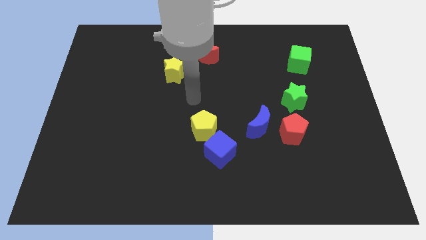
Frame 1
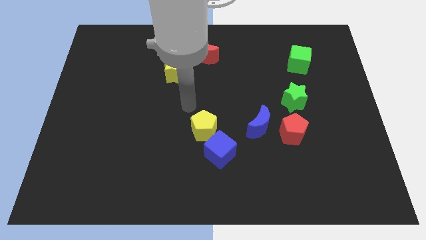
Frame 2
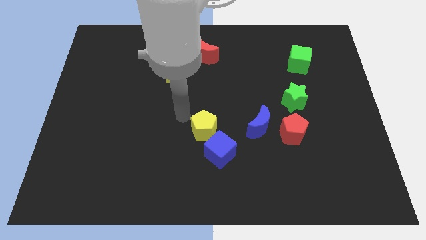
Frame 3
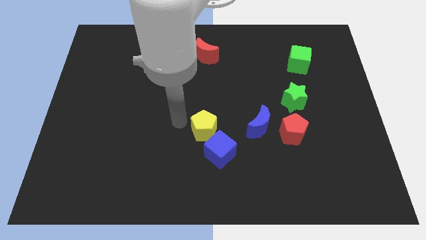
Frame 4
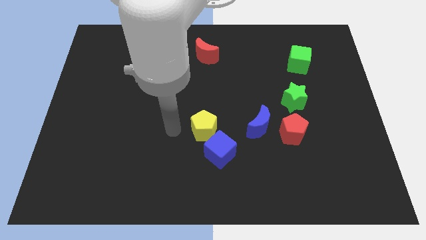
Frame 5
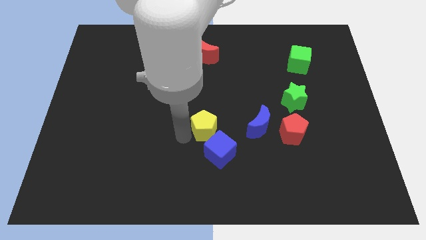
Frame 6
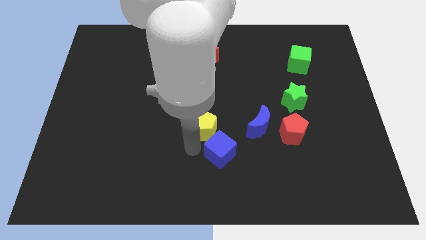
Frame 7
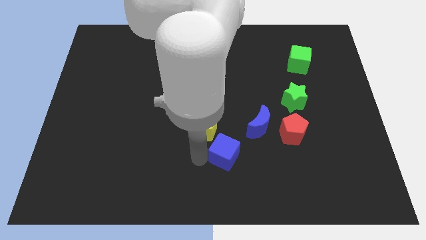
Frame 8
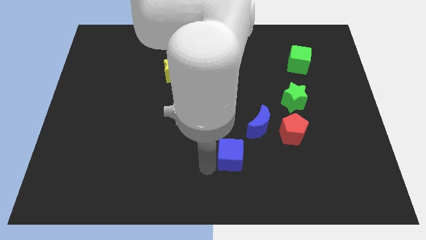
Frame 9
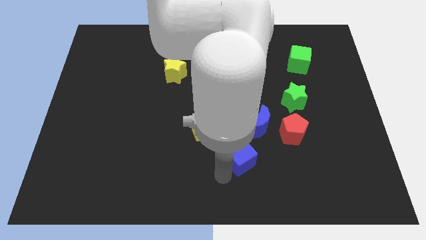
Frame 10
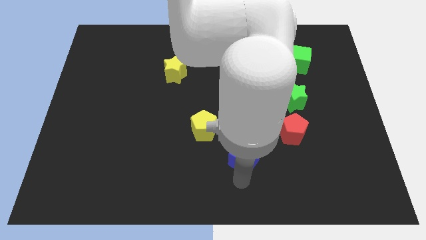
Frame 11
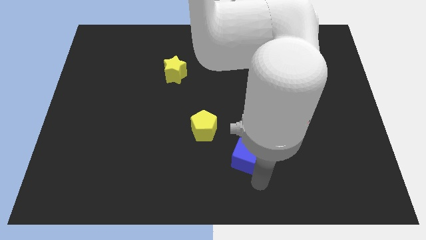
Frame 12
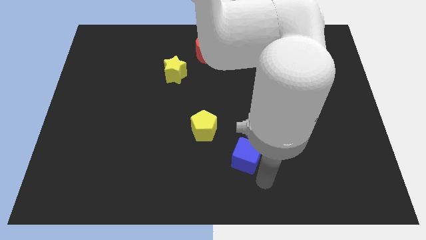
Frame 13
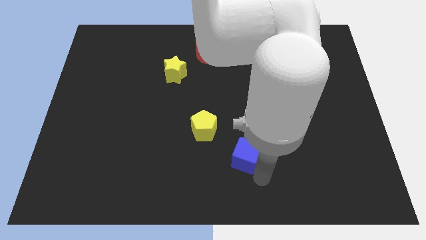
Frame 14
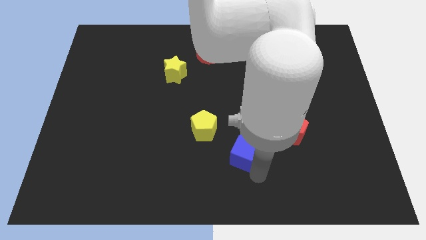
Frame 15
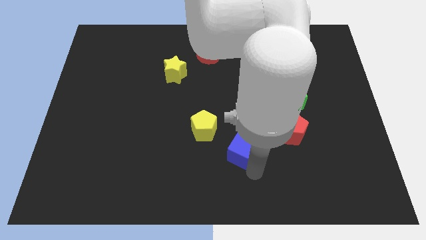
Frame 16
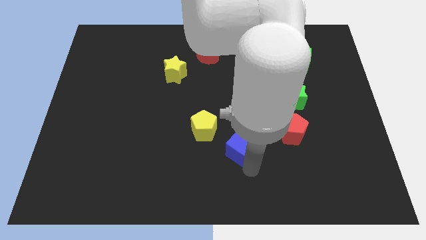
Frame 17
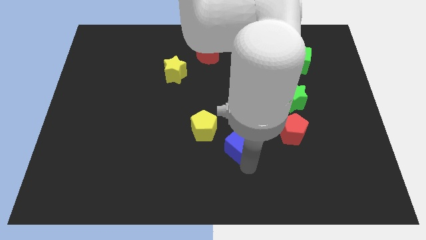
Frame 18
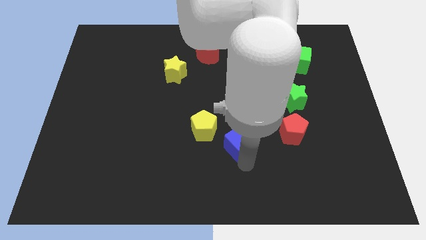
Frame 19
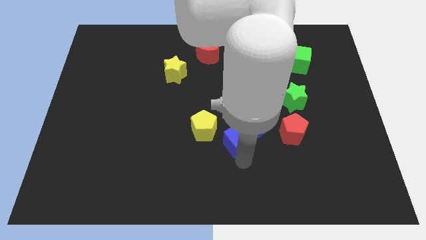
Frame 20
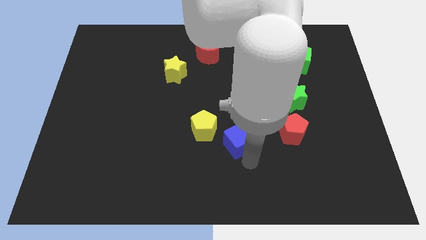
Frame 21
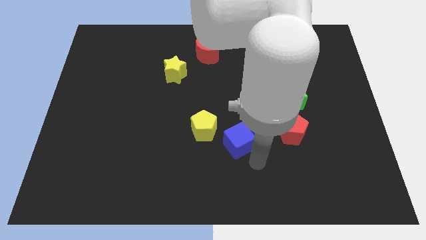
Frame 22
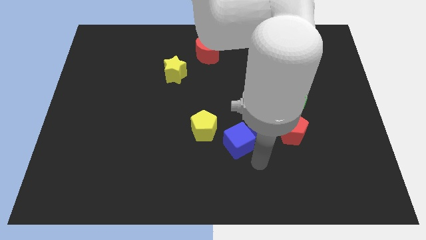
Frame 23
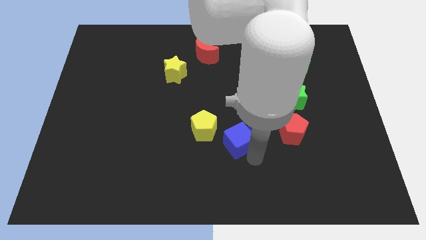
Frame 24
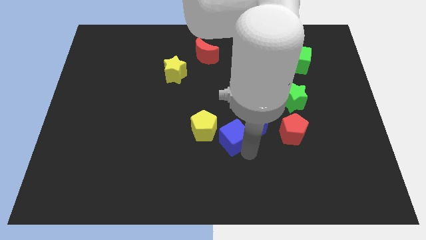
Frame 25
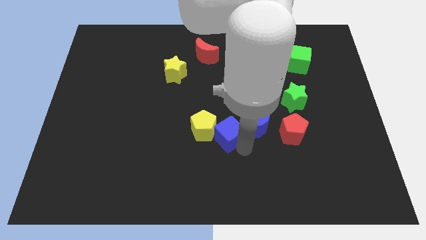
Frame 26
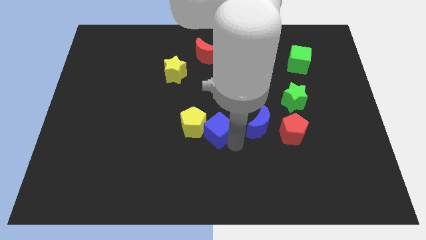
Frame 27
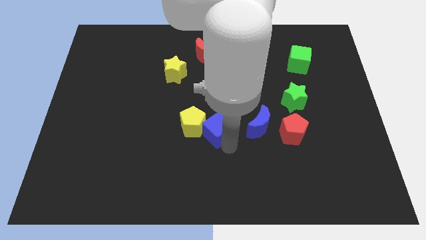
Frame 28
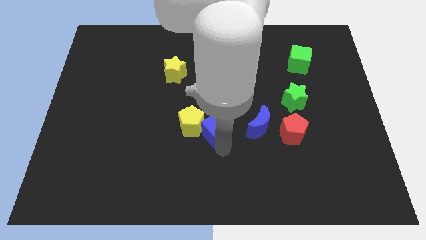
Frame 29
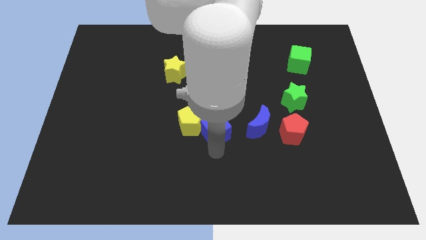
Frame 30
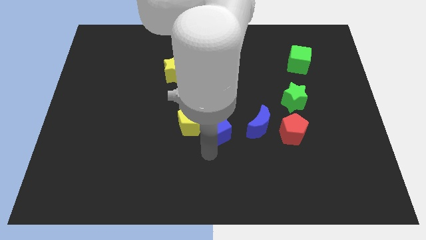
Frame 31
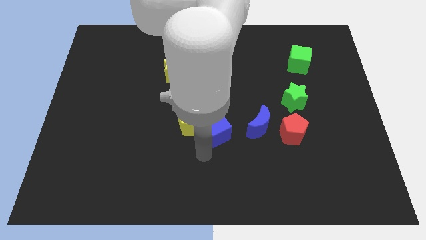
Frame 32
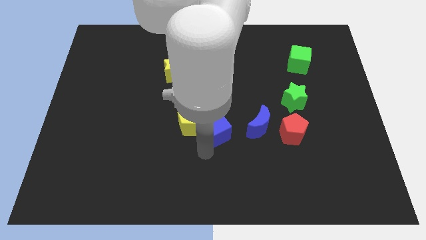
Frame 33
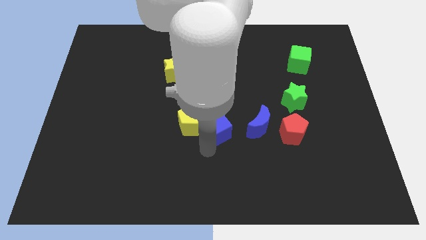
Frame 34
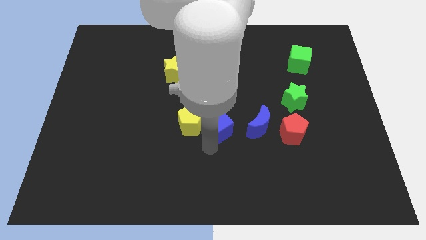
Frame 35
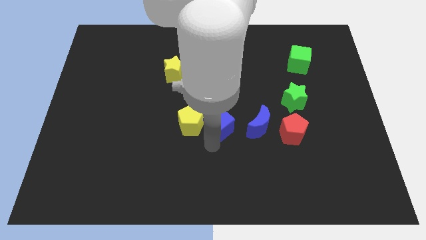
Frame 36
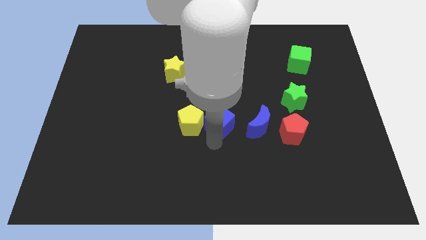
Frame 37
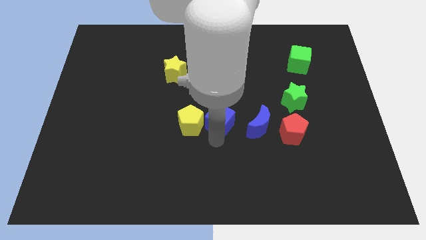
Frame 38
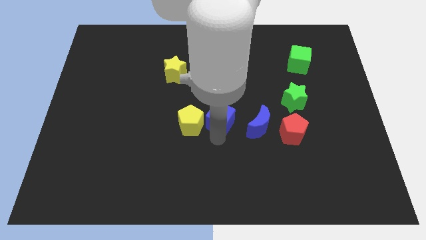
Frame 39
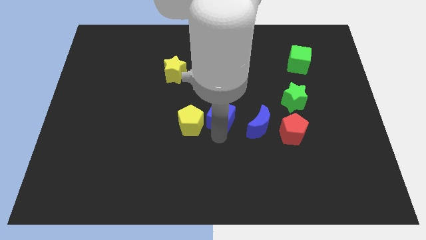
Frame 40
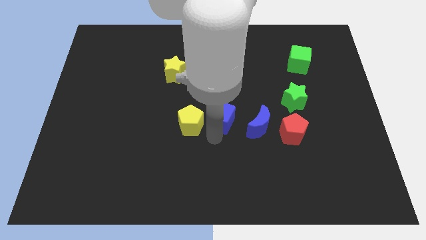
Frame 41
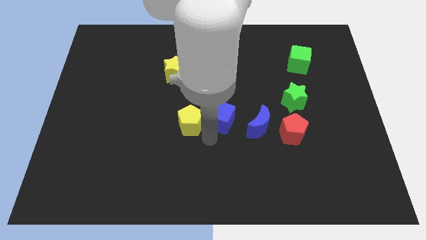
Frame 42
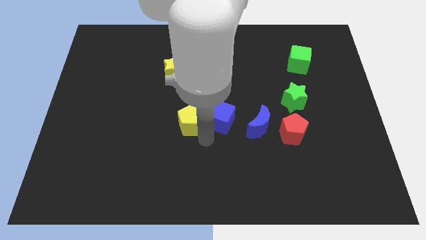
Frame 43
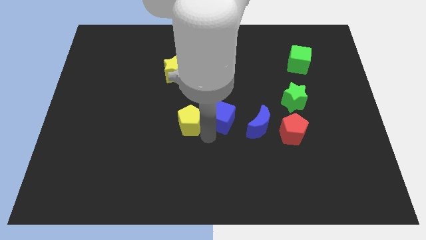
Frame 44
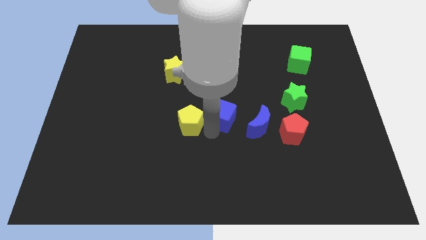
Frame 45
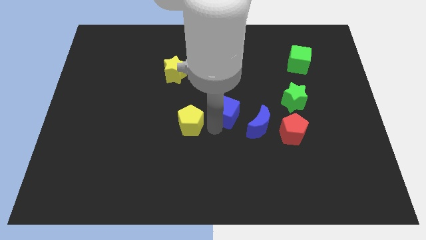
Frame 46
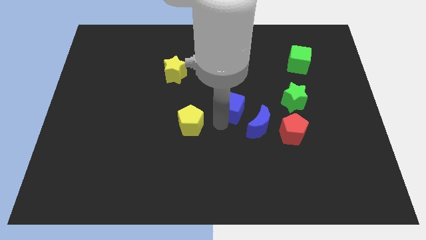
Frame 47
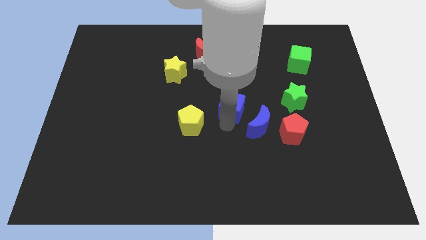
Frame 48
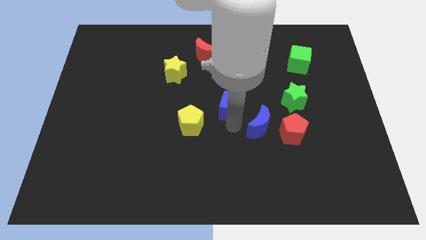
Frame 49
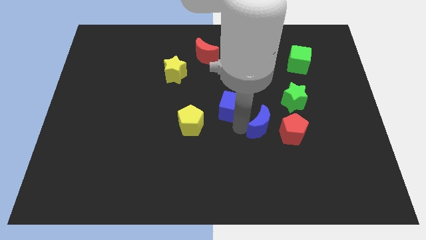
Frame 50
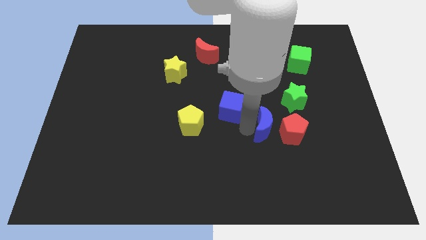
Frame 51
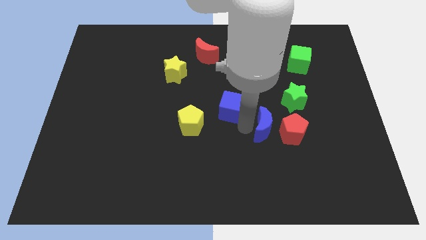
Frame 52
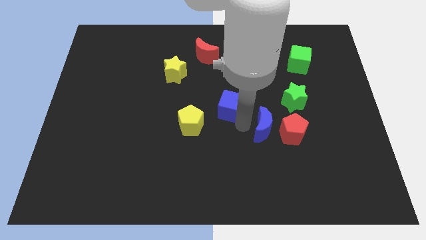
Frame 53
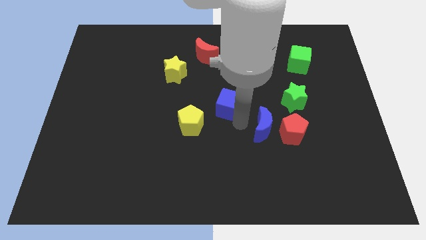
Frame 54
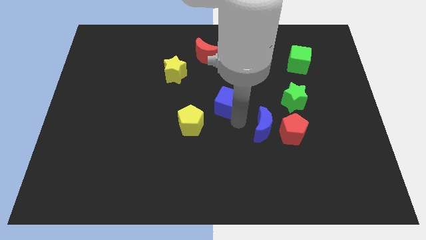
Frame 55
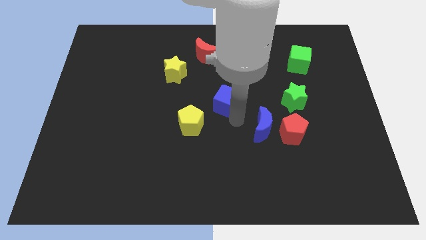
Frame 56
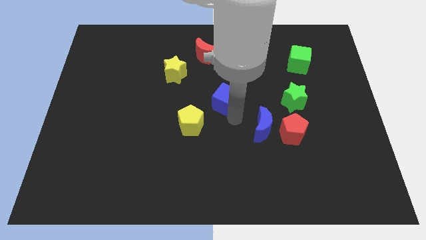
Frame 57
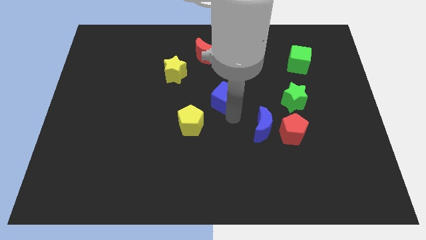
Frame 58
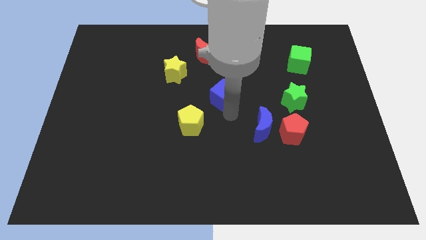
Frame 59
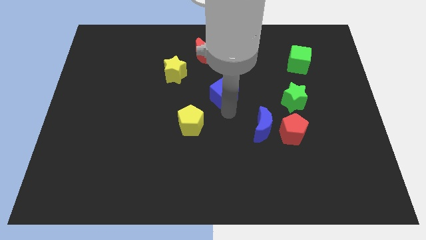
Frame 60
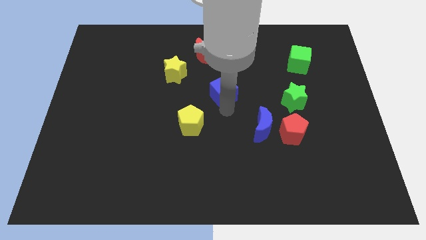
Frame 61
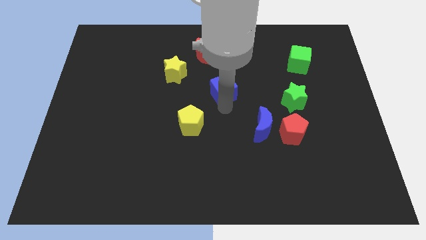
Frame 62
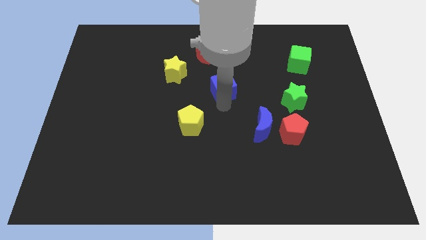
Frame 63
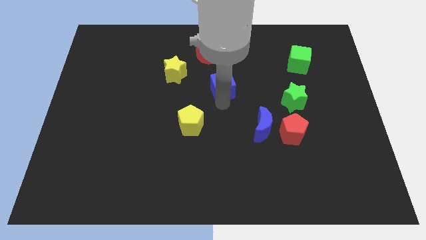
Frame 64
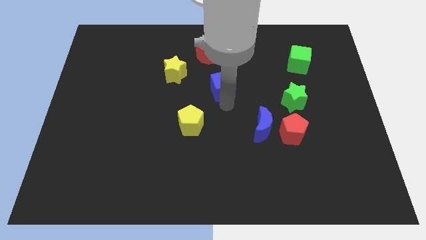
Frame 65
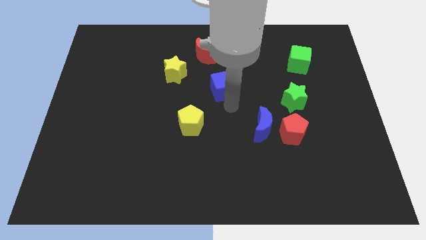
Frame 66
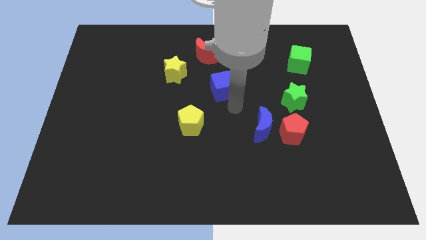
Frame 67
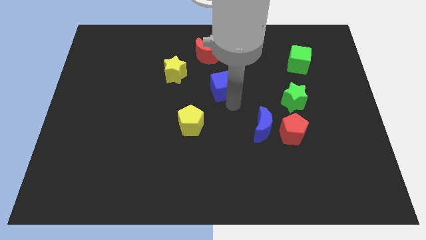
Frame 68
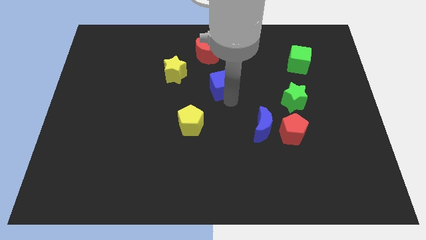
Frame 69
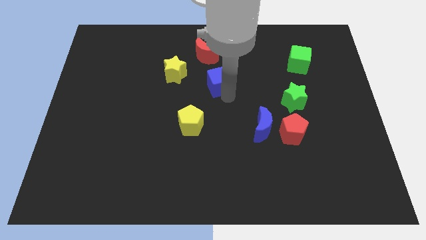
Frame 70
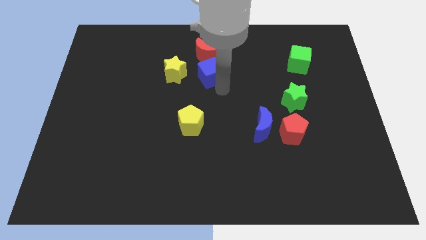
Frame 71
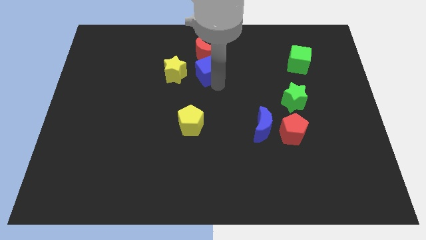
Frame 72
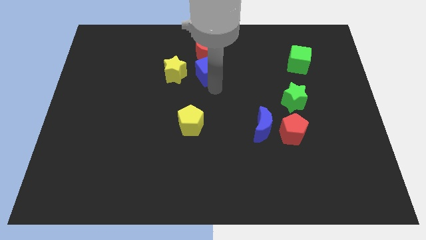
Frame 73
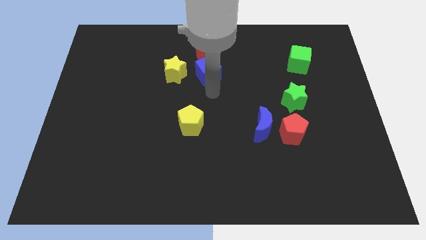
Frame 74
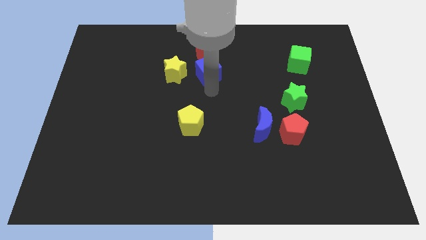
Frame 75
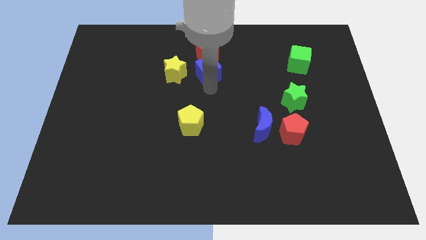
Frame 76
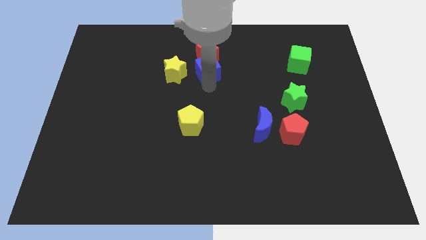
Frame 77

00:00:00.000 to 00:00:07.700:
slide the blue cube next to the red moon
